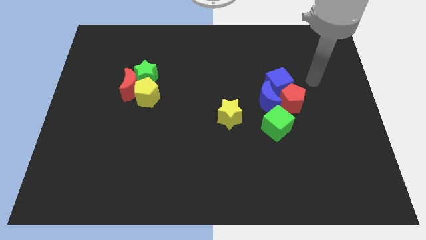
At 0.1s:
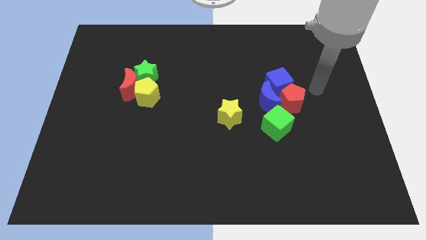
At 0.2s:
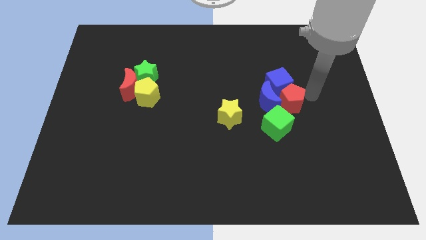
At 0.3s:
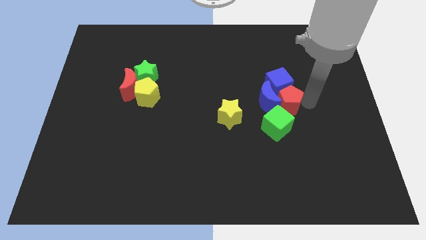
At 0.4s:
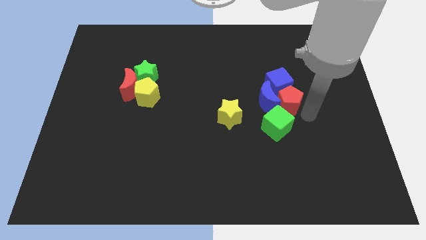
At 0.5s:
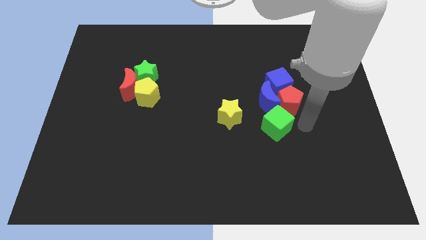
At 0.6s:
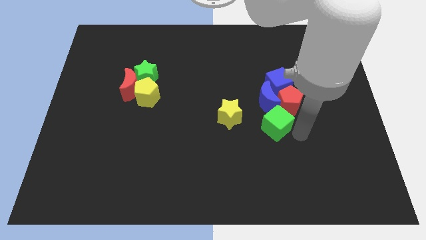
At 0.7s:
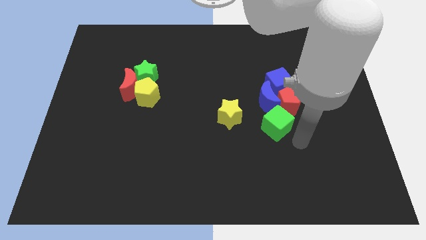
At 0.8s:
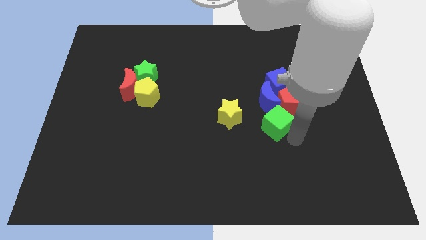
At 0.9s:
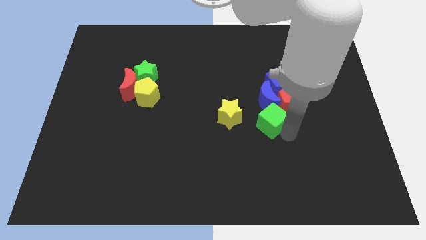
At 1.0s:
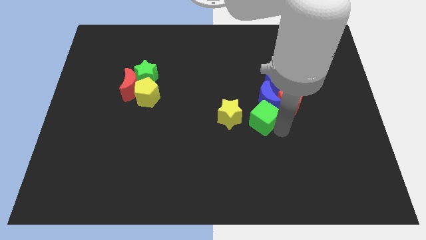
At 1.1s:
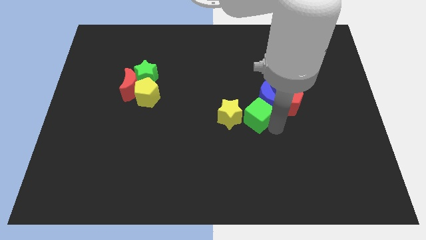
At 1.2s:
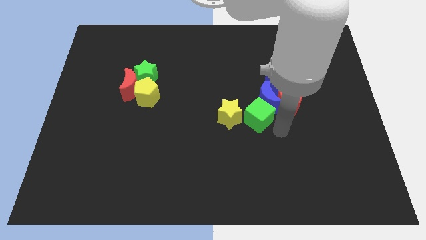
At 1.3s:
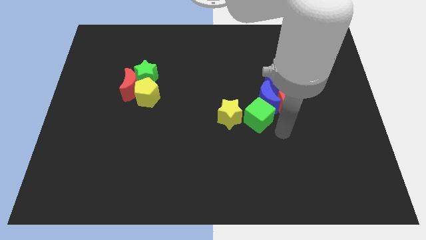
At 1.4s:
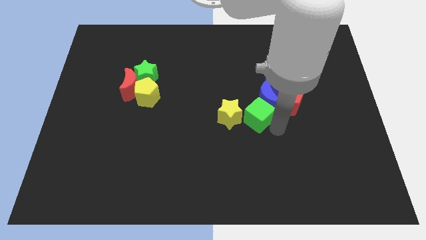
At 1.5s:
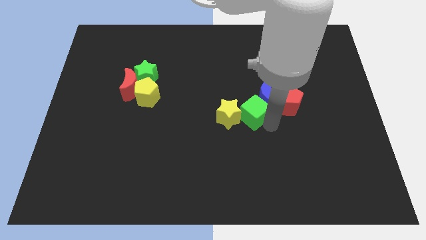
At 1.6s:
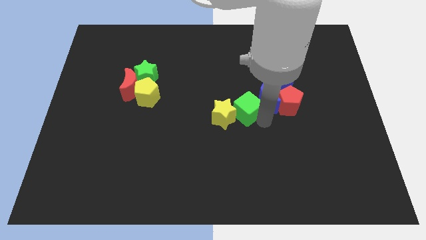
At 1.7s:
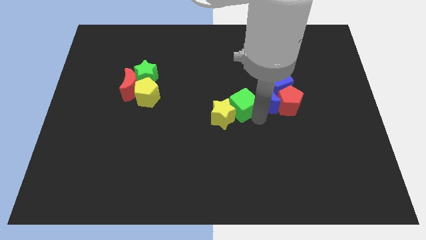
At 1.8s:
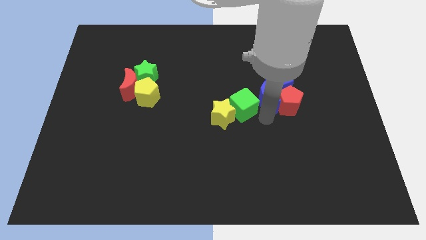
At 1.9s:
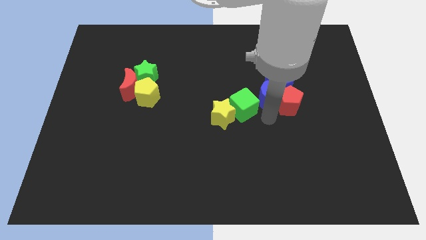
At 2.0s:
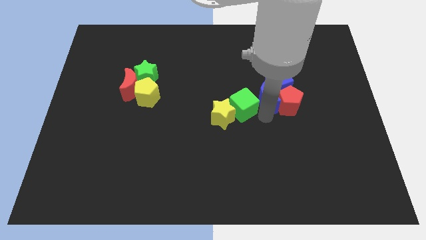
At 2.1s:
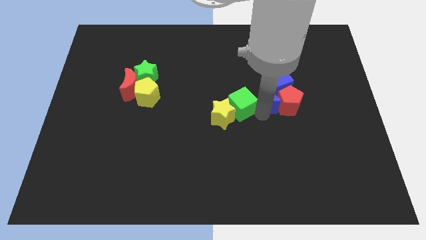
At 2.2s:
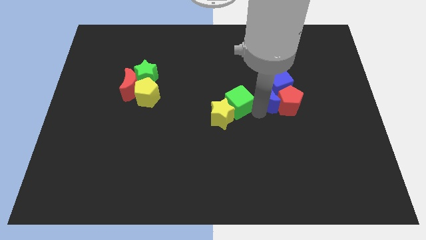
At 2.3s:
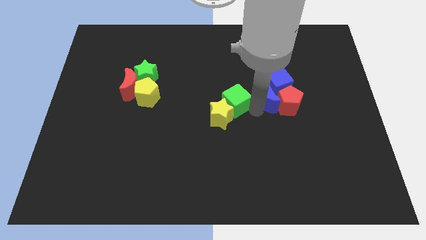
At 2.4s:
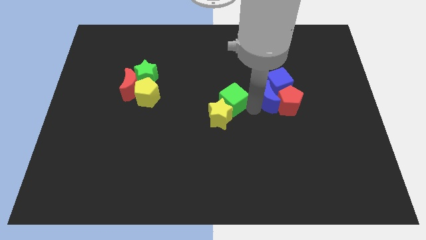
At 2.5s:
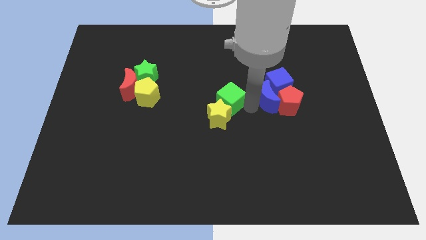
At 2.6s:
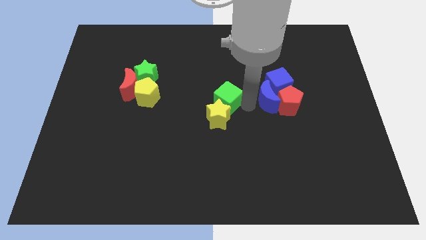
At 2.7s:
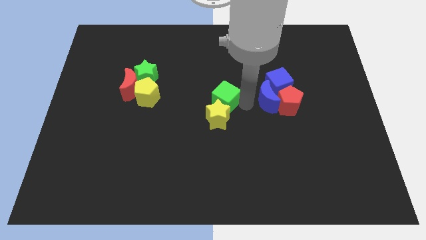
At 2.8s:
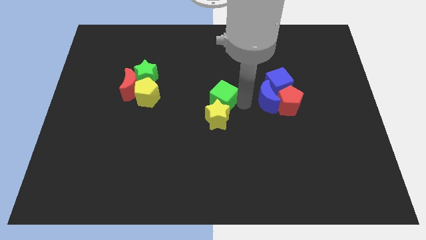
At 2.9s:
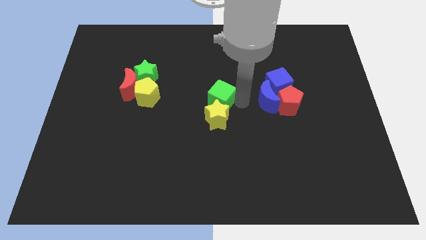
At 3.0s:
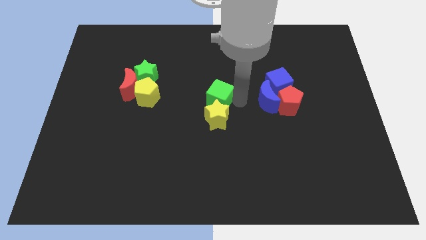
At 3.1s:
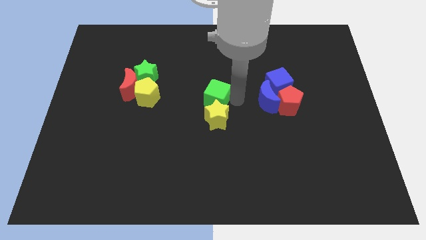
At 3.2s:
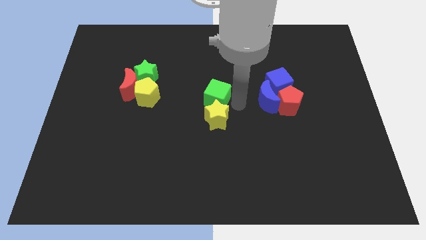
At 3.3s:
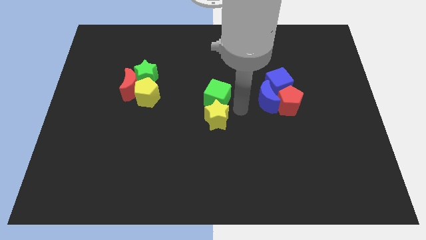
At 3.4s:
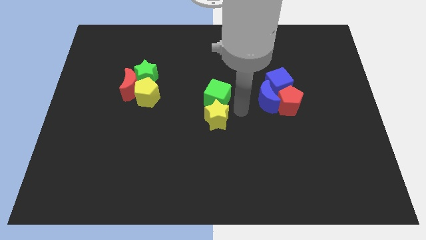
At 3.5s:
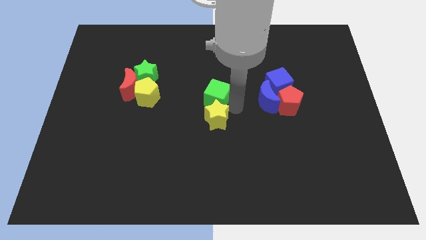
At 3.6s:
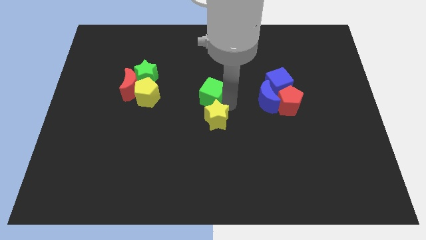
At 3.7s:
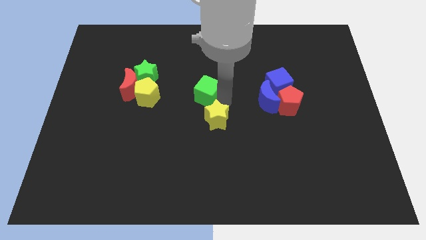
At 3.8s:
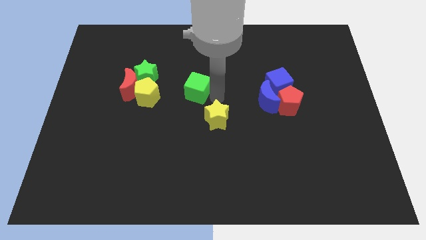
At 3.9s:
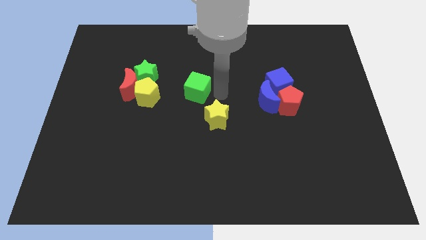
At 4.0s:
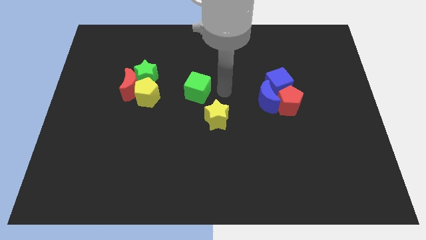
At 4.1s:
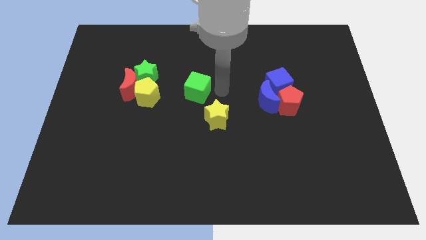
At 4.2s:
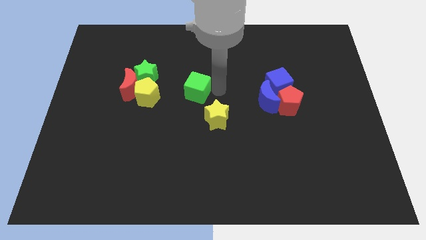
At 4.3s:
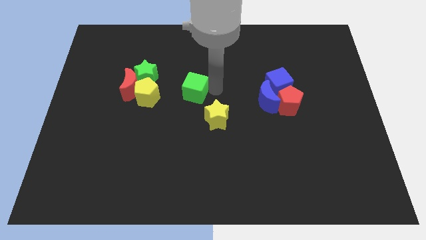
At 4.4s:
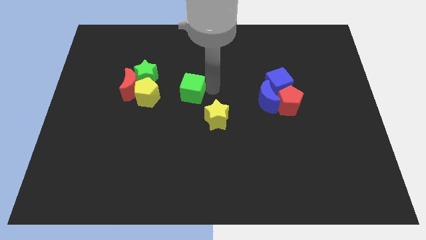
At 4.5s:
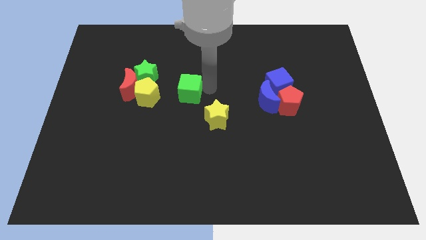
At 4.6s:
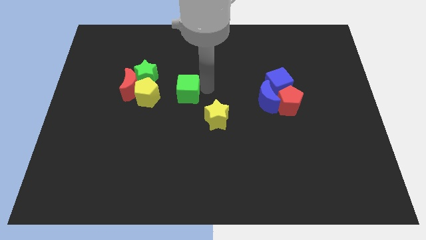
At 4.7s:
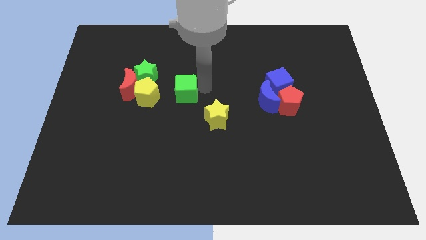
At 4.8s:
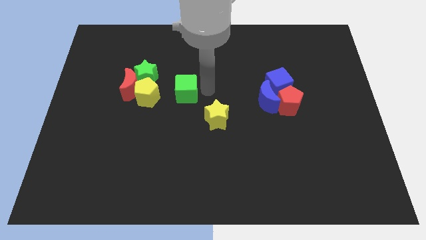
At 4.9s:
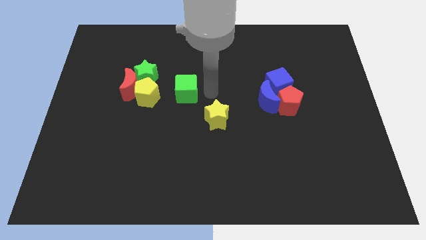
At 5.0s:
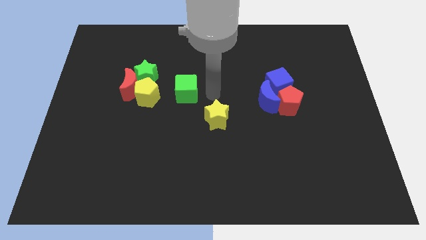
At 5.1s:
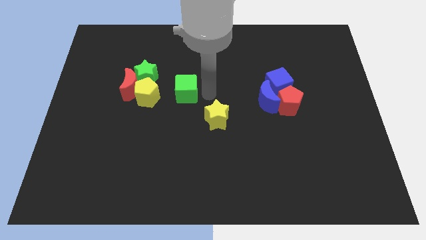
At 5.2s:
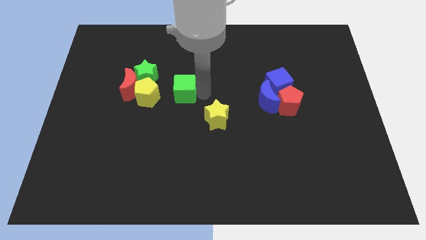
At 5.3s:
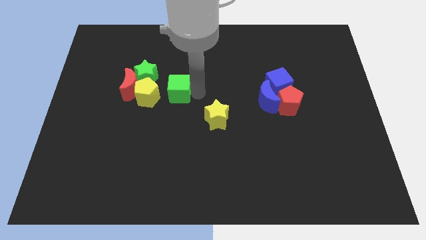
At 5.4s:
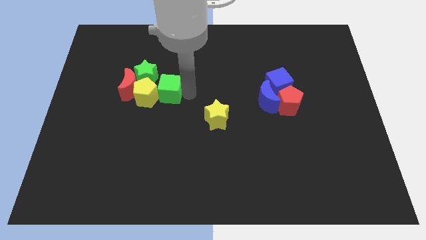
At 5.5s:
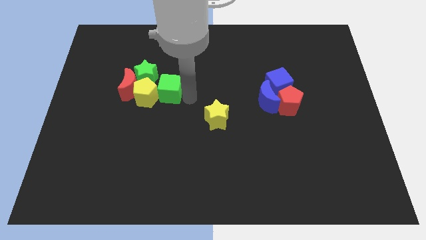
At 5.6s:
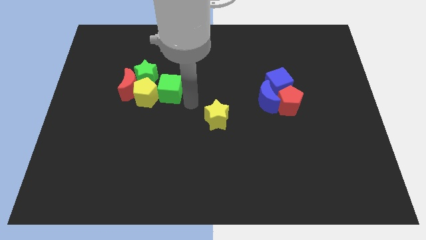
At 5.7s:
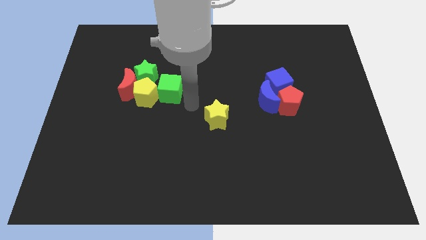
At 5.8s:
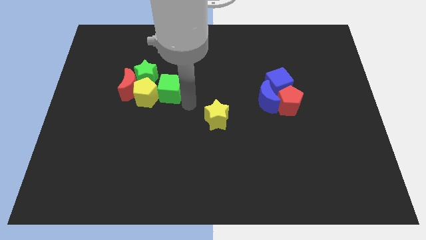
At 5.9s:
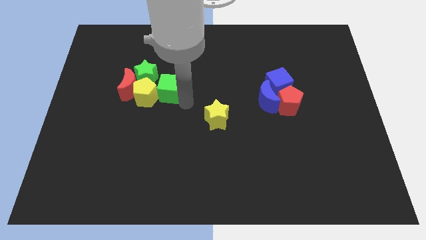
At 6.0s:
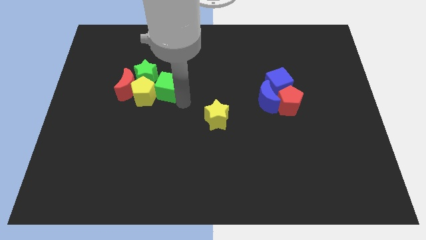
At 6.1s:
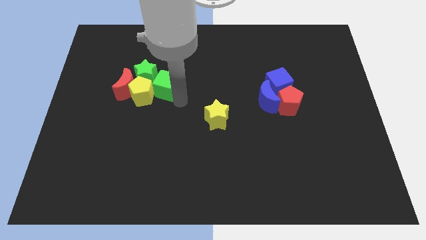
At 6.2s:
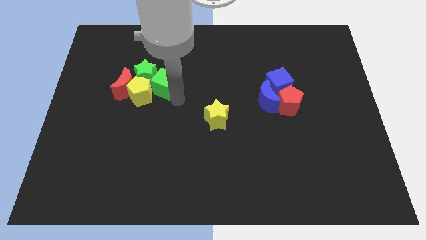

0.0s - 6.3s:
move the green cube close to the green star
